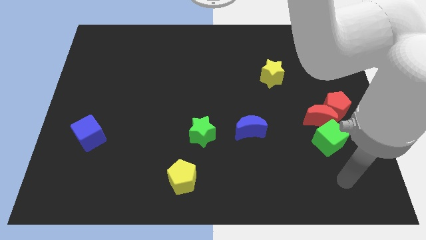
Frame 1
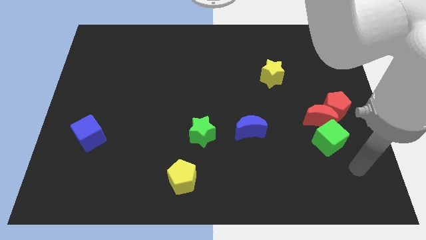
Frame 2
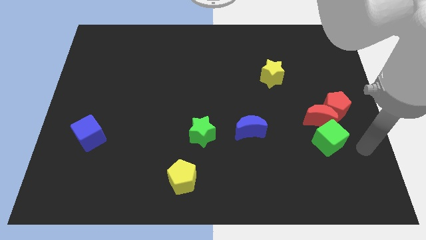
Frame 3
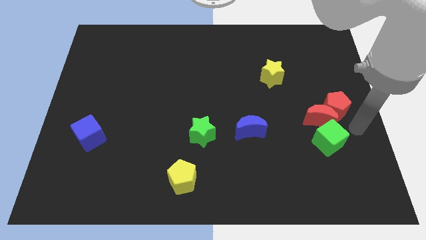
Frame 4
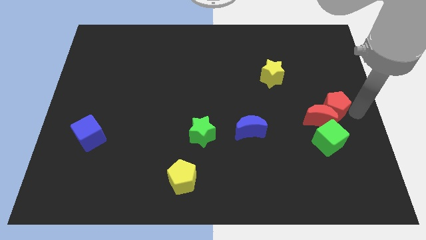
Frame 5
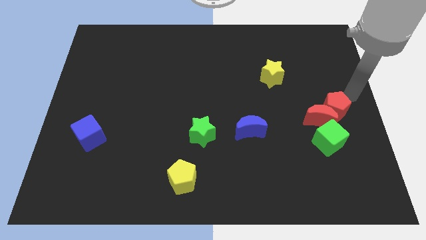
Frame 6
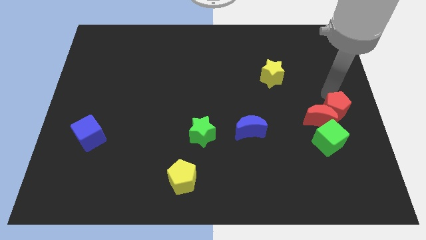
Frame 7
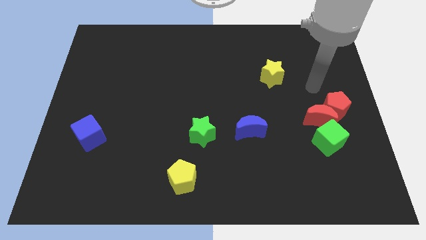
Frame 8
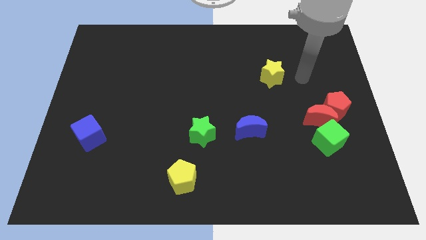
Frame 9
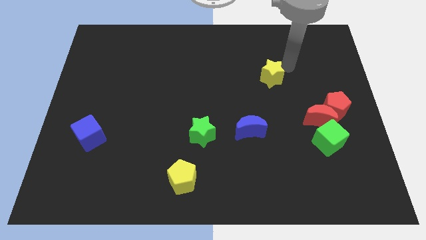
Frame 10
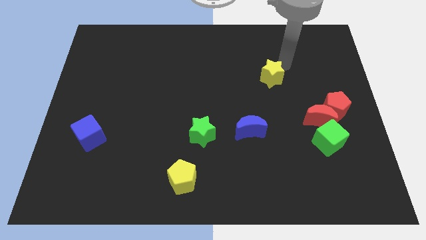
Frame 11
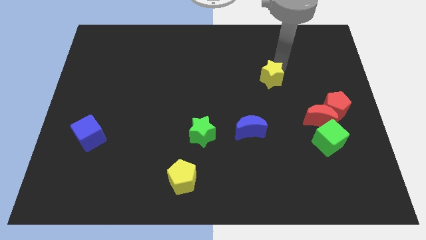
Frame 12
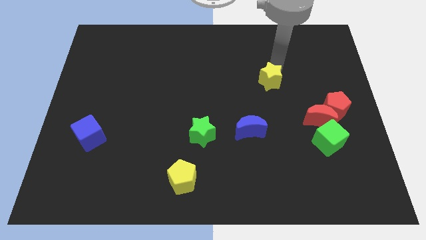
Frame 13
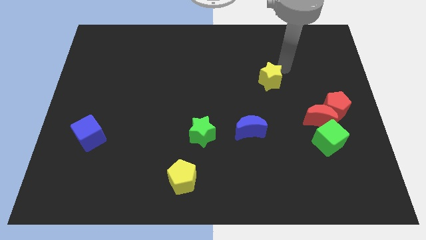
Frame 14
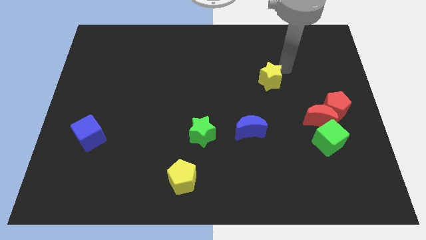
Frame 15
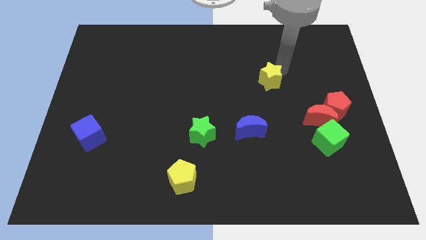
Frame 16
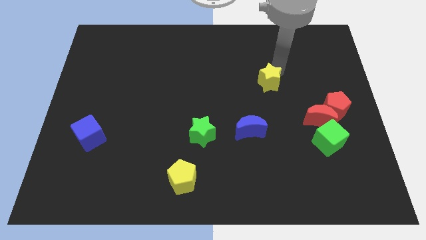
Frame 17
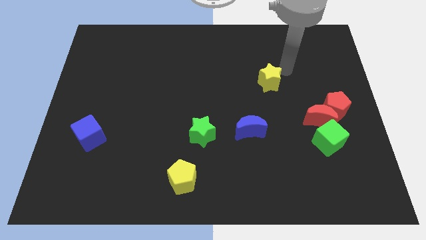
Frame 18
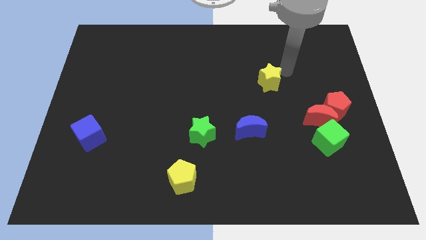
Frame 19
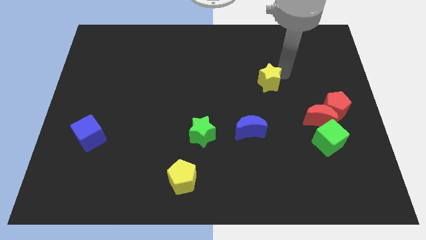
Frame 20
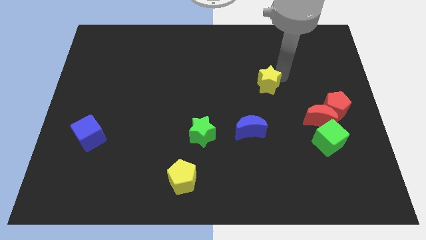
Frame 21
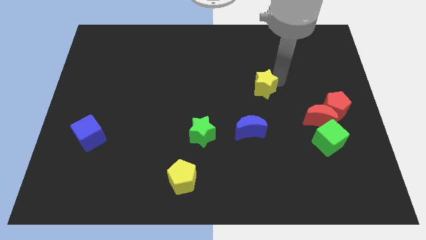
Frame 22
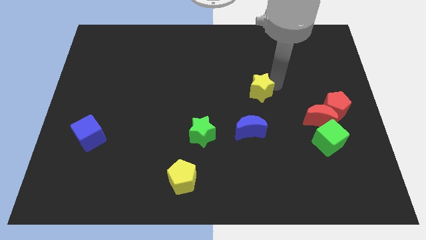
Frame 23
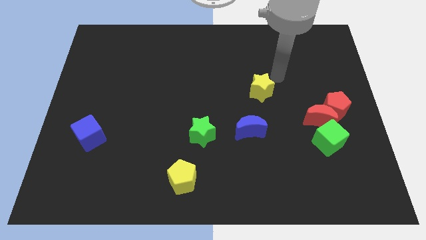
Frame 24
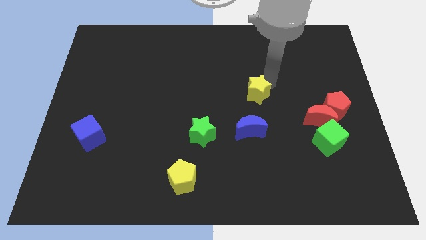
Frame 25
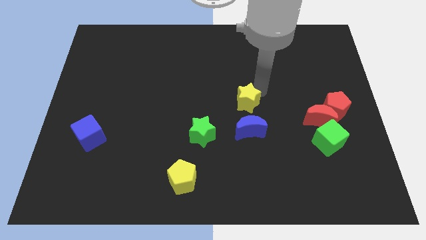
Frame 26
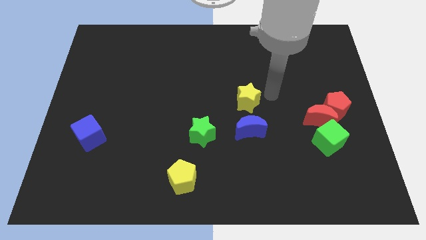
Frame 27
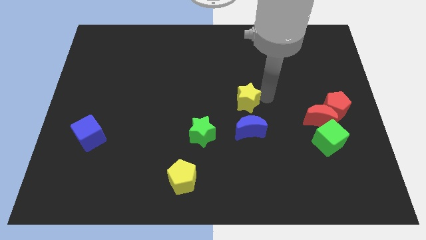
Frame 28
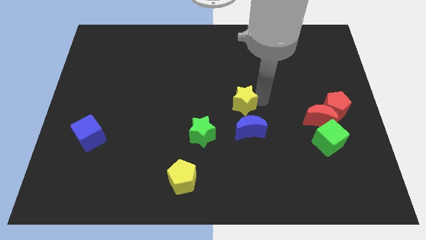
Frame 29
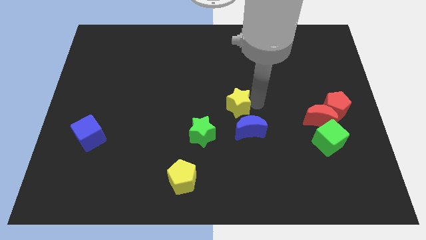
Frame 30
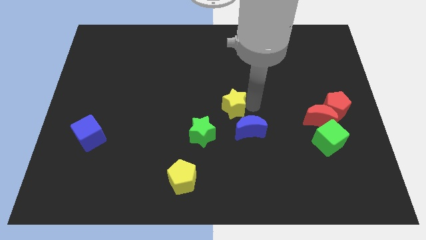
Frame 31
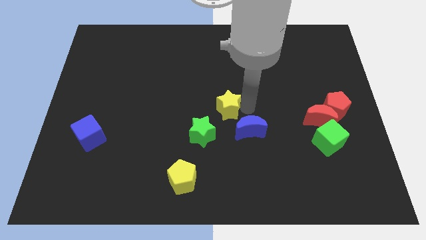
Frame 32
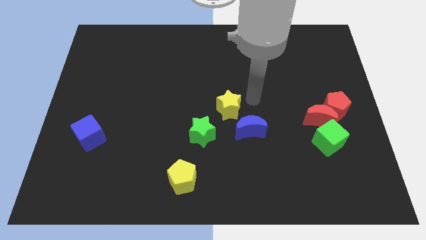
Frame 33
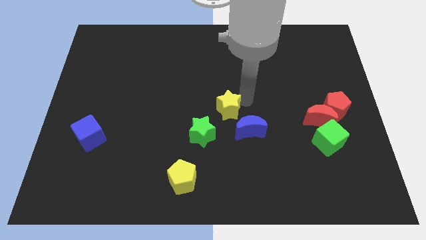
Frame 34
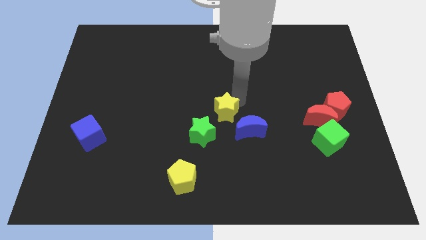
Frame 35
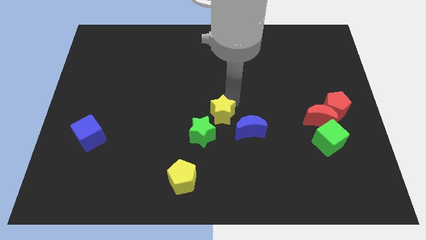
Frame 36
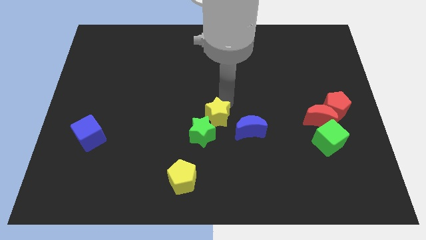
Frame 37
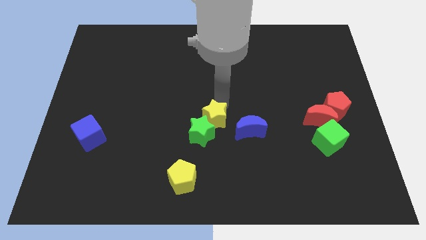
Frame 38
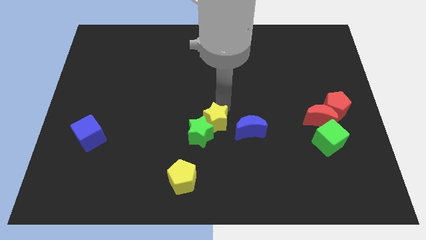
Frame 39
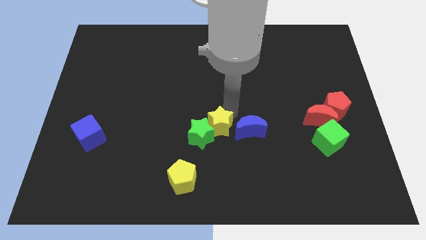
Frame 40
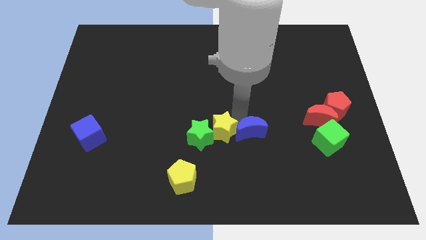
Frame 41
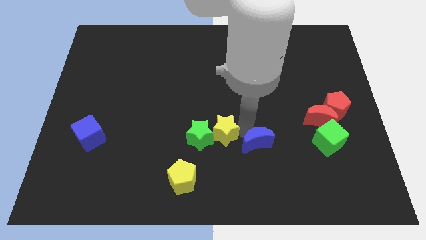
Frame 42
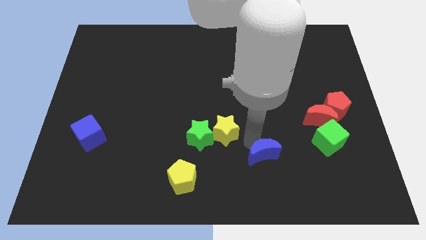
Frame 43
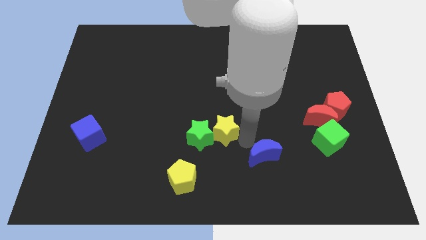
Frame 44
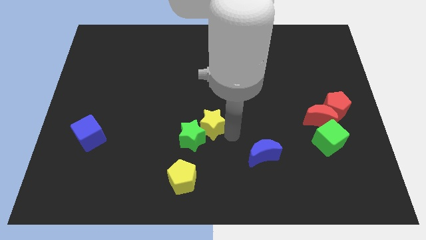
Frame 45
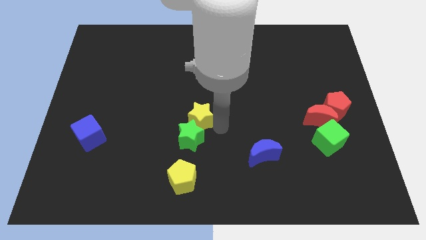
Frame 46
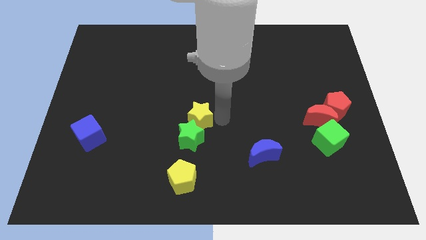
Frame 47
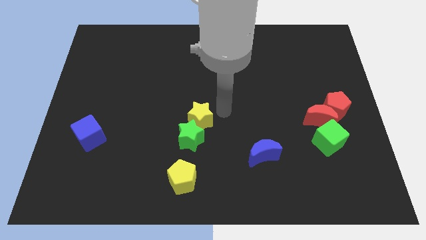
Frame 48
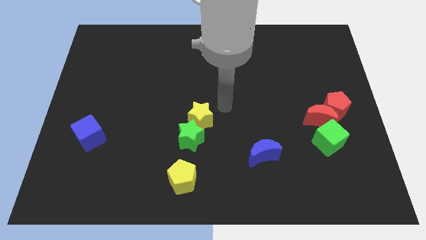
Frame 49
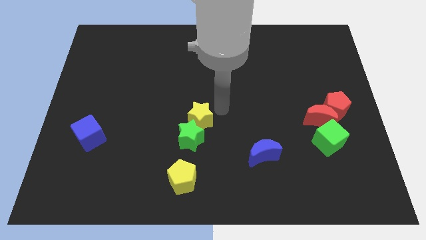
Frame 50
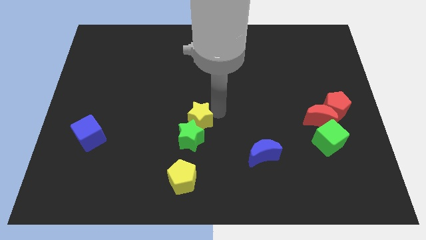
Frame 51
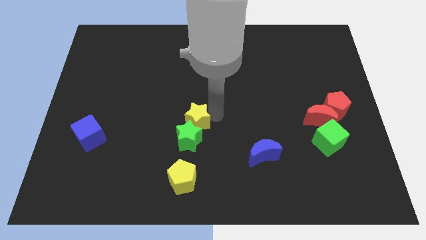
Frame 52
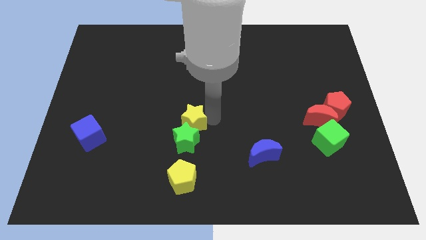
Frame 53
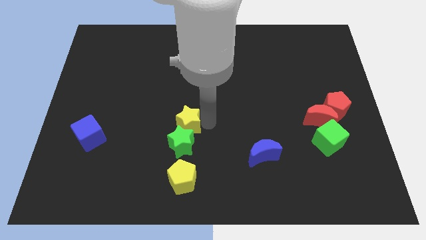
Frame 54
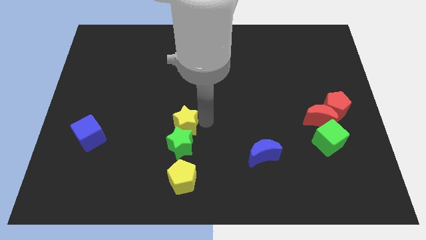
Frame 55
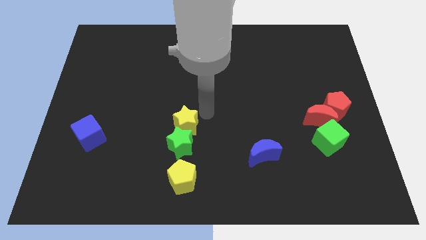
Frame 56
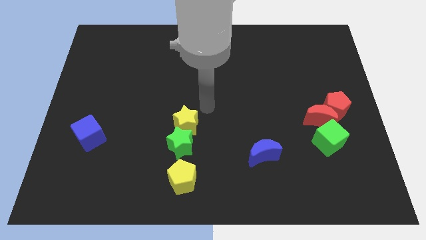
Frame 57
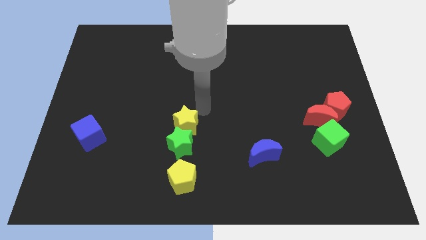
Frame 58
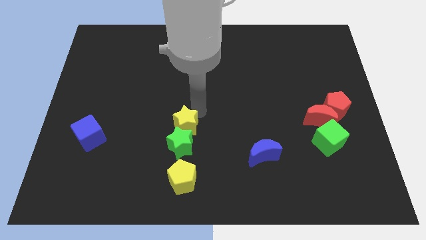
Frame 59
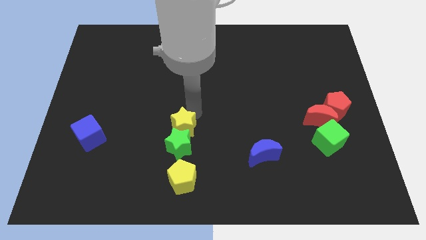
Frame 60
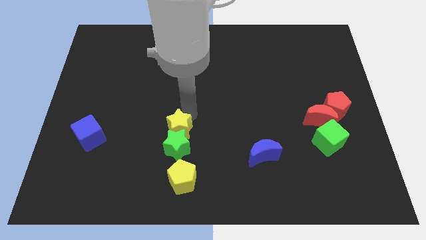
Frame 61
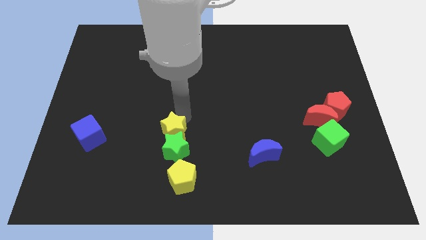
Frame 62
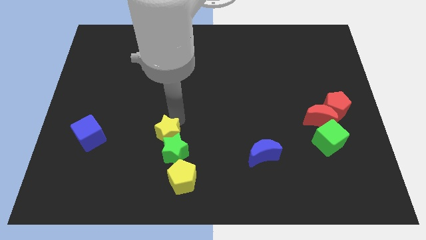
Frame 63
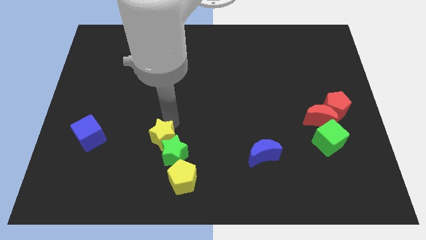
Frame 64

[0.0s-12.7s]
slide the yellow star to the top left of the yellow pentagon
